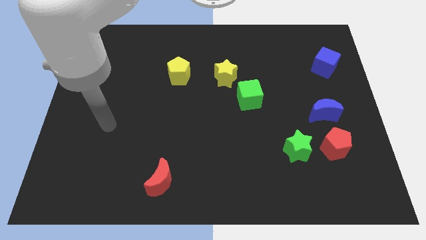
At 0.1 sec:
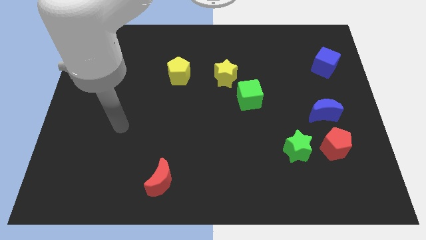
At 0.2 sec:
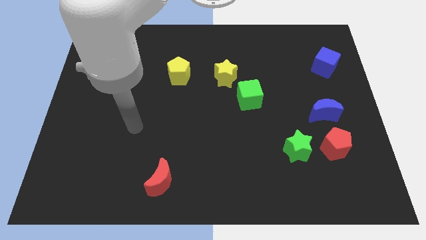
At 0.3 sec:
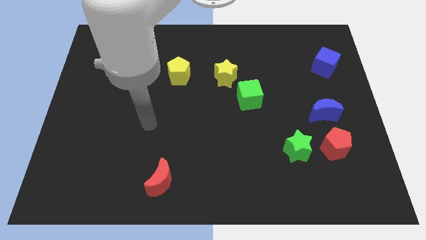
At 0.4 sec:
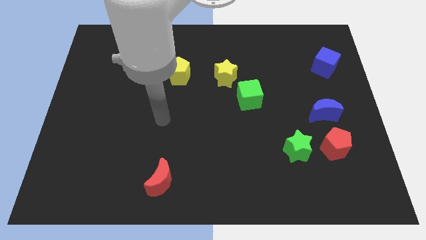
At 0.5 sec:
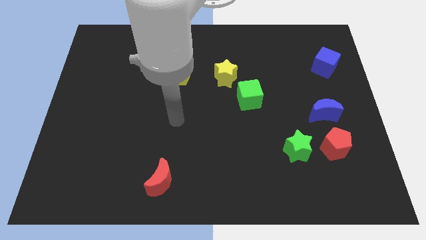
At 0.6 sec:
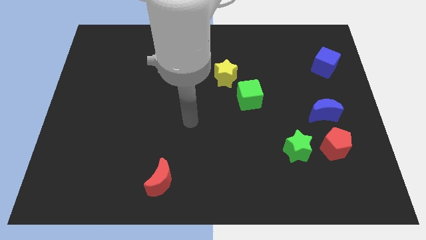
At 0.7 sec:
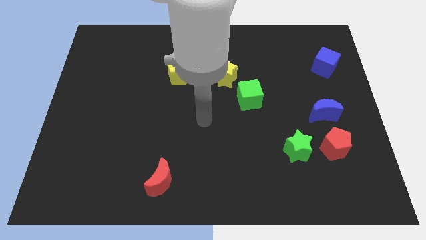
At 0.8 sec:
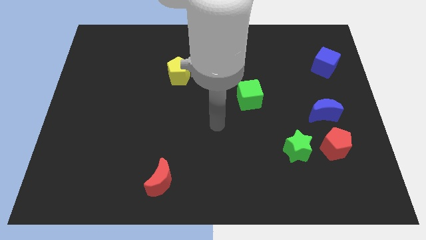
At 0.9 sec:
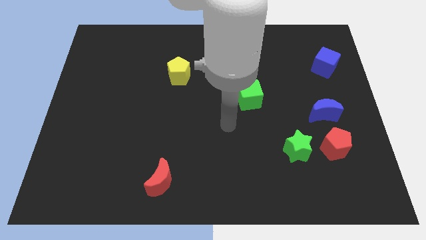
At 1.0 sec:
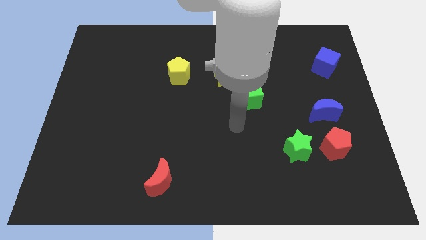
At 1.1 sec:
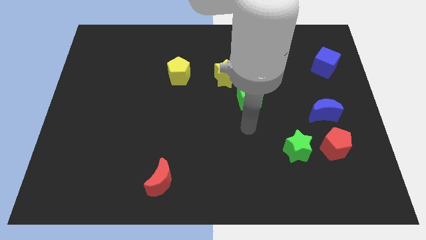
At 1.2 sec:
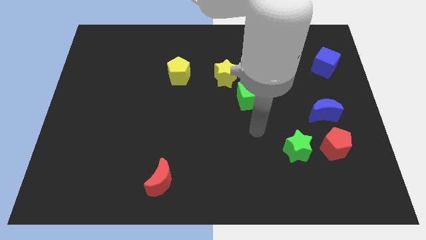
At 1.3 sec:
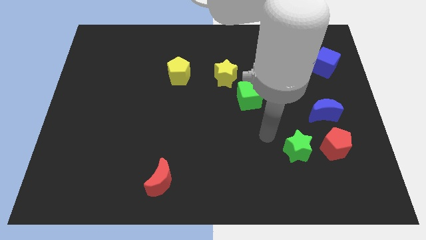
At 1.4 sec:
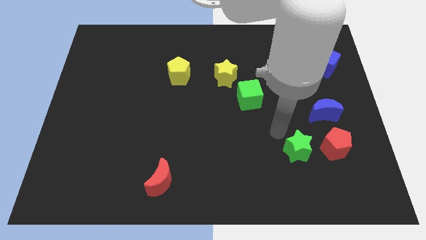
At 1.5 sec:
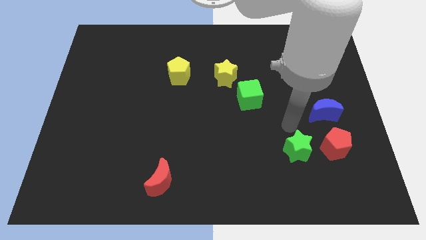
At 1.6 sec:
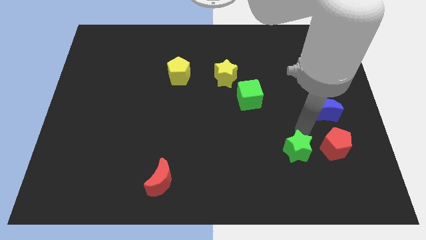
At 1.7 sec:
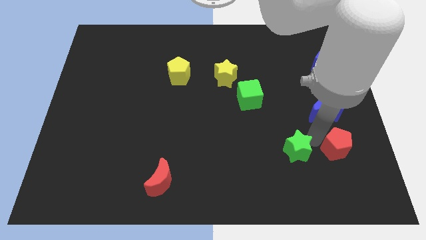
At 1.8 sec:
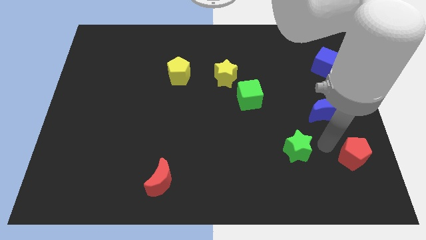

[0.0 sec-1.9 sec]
move the green star away from the red pentagon

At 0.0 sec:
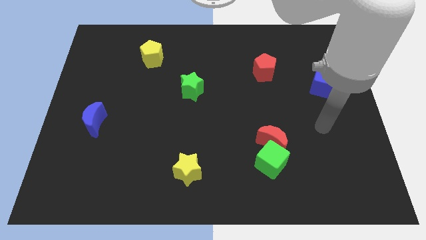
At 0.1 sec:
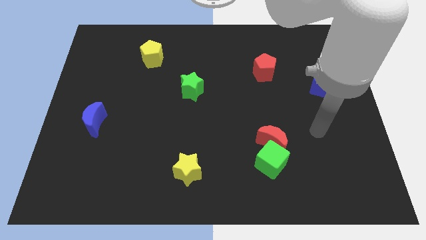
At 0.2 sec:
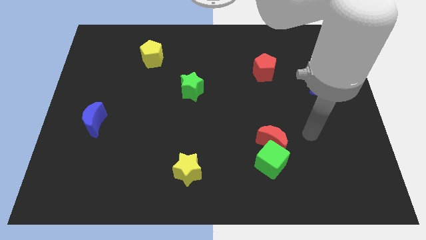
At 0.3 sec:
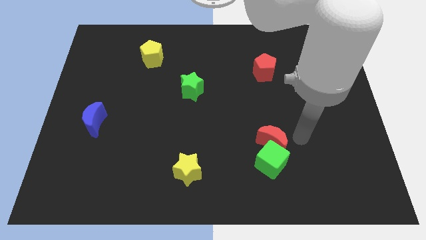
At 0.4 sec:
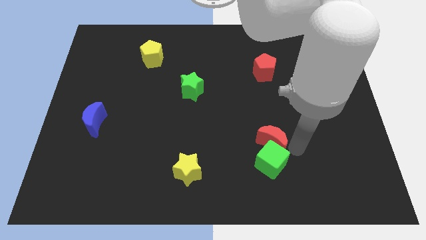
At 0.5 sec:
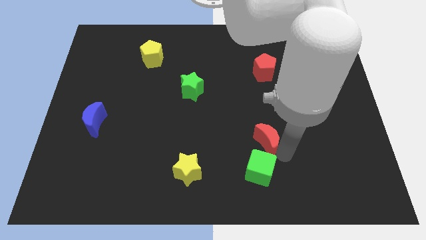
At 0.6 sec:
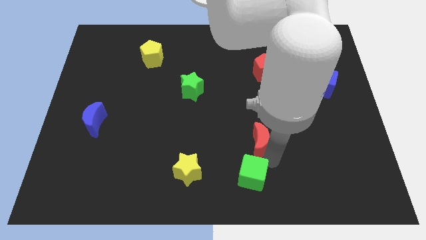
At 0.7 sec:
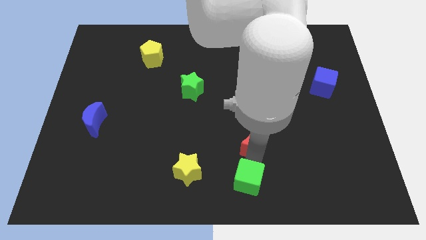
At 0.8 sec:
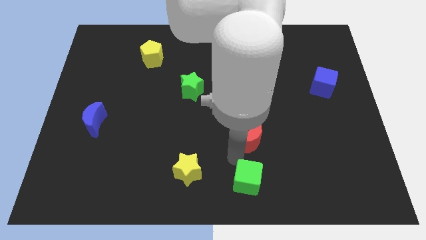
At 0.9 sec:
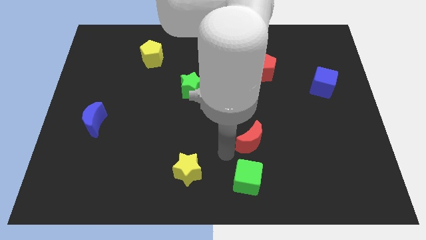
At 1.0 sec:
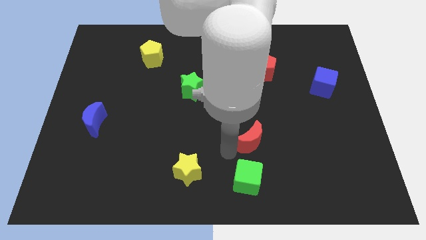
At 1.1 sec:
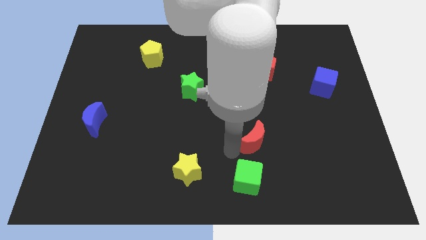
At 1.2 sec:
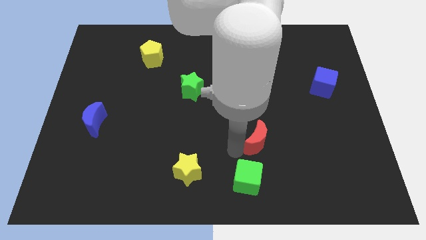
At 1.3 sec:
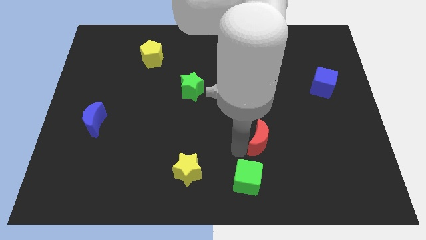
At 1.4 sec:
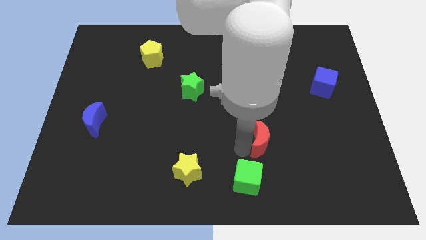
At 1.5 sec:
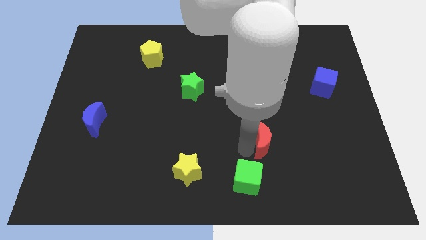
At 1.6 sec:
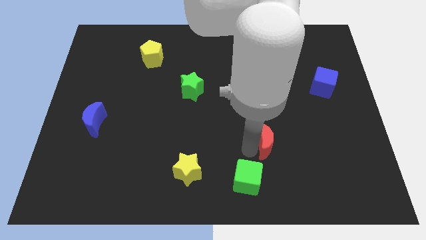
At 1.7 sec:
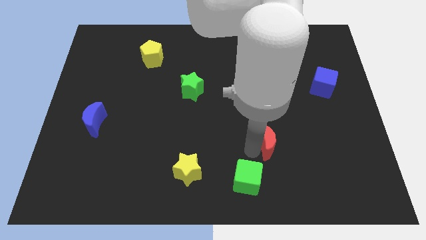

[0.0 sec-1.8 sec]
separate the red moon from the green cube

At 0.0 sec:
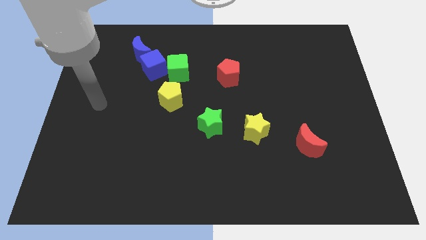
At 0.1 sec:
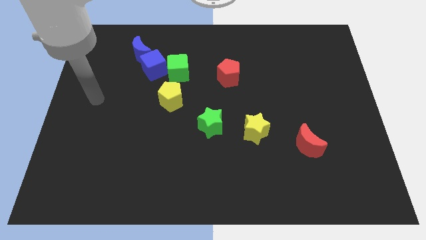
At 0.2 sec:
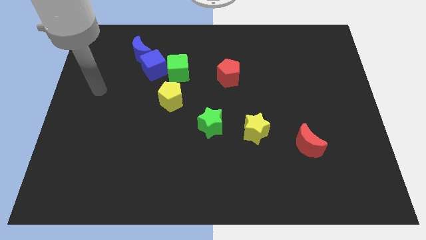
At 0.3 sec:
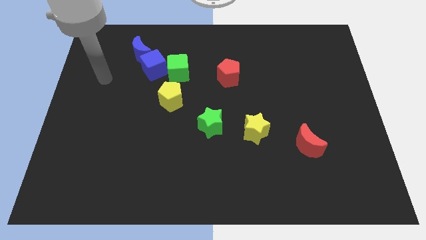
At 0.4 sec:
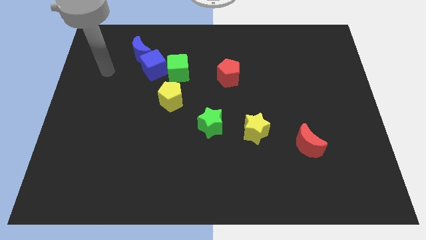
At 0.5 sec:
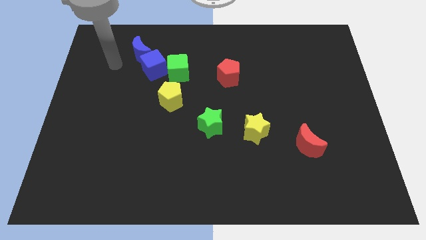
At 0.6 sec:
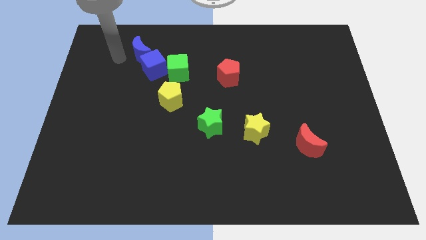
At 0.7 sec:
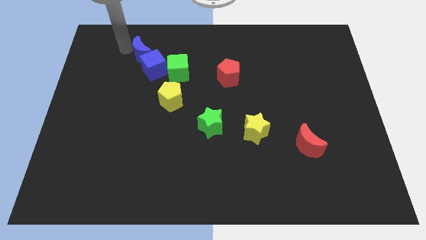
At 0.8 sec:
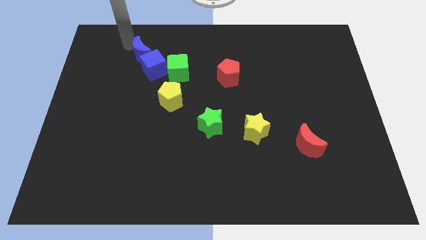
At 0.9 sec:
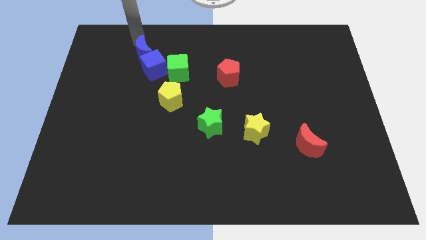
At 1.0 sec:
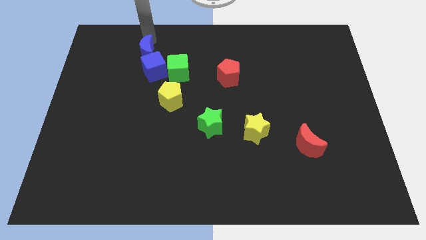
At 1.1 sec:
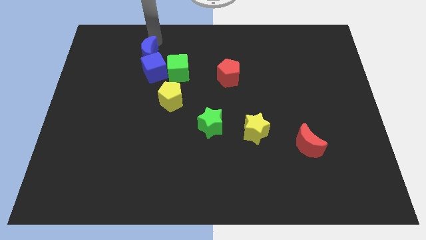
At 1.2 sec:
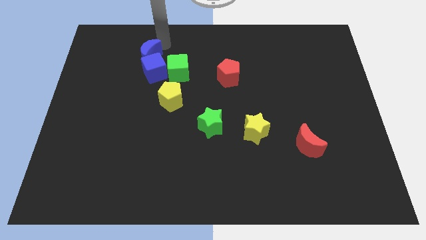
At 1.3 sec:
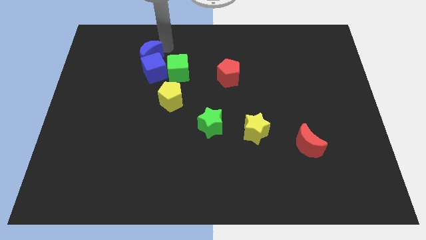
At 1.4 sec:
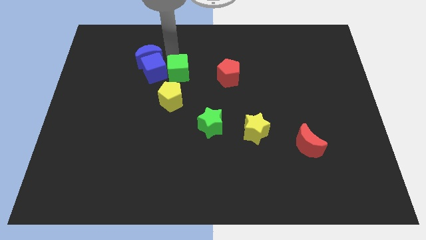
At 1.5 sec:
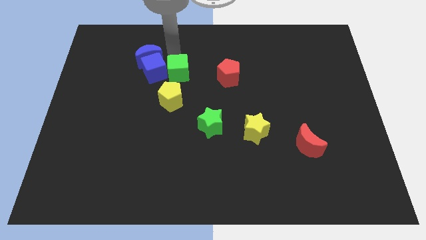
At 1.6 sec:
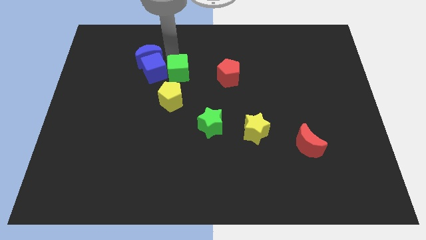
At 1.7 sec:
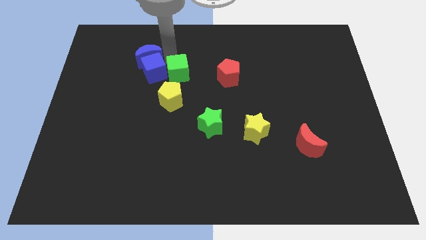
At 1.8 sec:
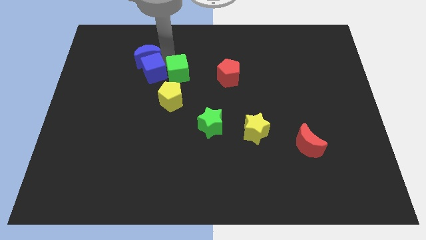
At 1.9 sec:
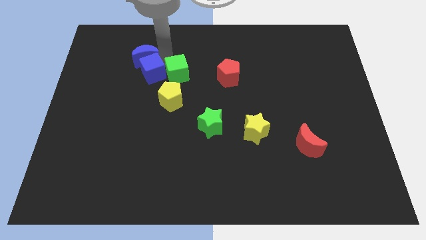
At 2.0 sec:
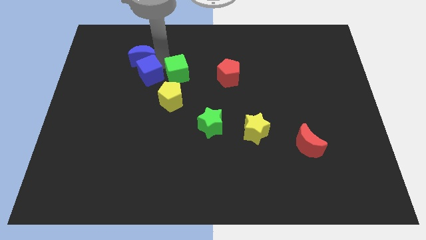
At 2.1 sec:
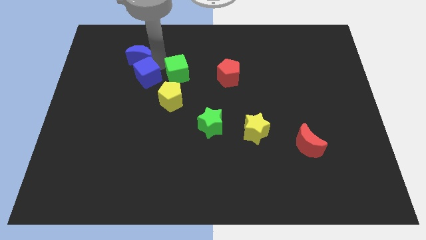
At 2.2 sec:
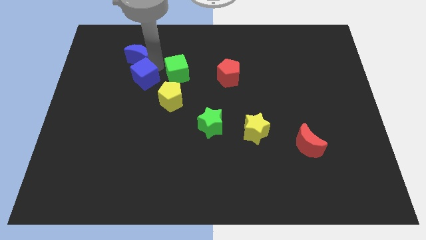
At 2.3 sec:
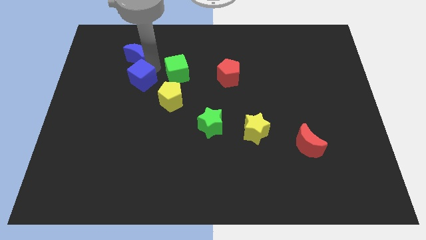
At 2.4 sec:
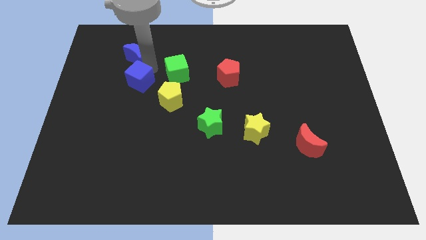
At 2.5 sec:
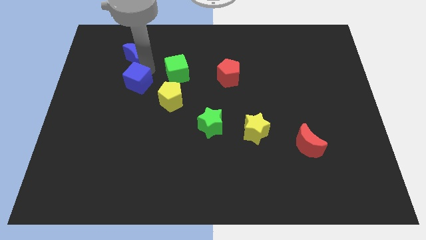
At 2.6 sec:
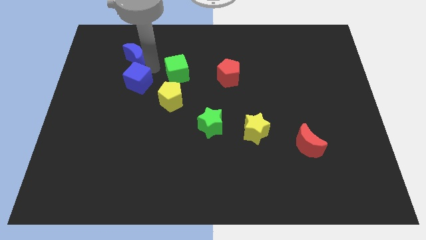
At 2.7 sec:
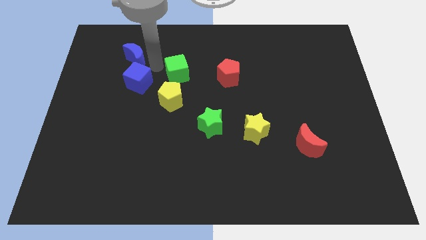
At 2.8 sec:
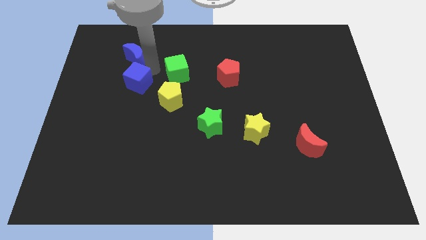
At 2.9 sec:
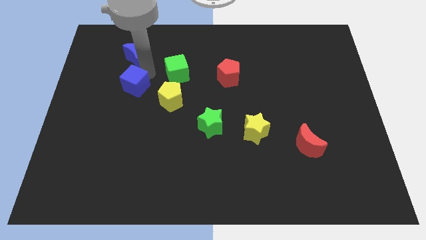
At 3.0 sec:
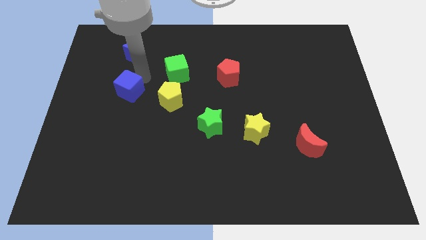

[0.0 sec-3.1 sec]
separate the blue cube from the green cube and blue moon

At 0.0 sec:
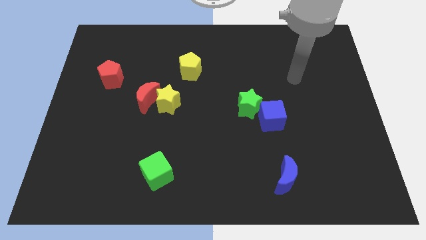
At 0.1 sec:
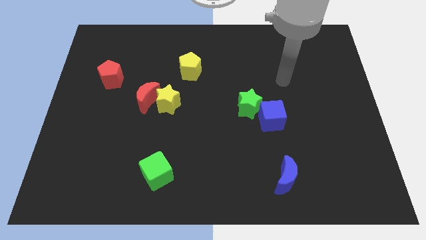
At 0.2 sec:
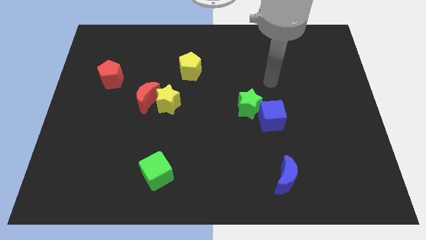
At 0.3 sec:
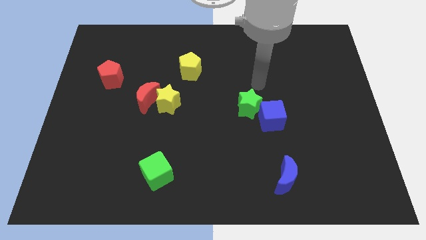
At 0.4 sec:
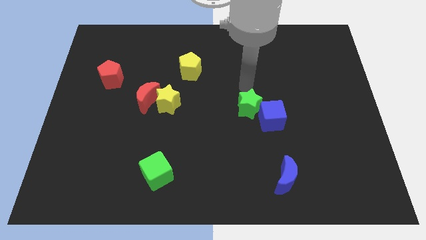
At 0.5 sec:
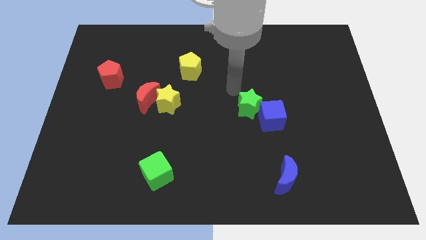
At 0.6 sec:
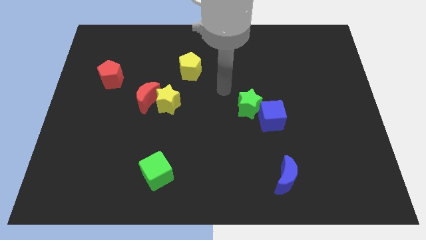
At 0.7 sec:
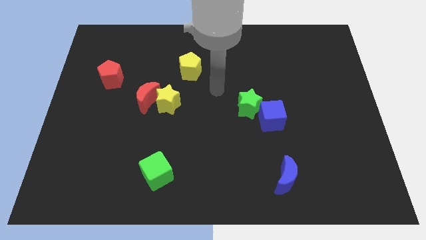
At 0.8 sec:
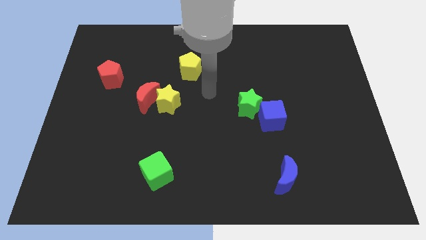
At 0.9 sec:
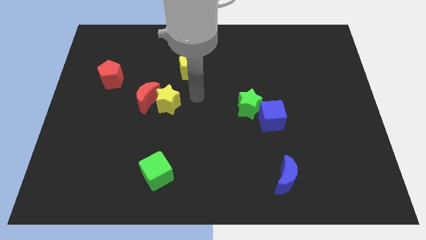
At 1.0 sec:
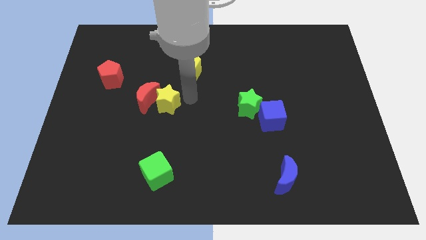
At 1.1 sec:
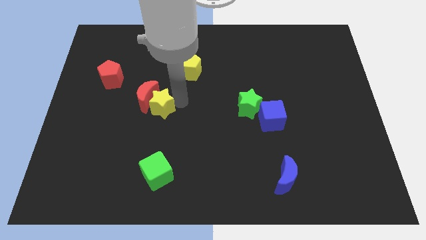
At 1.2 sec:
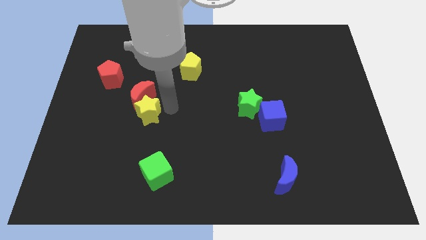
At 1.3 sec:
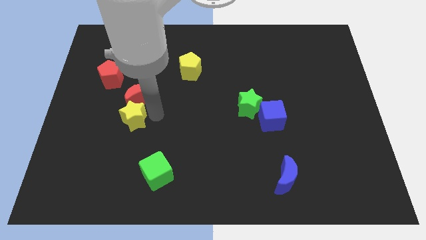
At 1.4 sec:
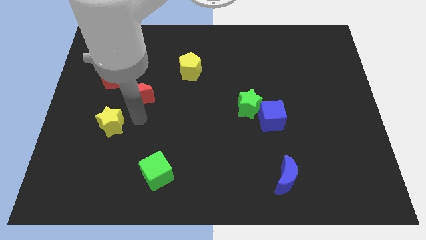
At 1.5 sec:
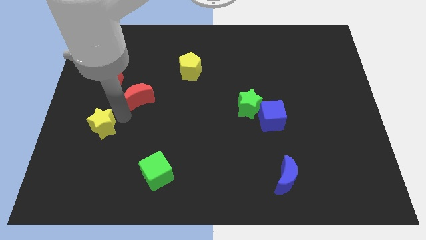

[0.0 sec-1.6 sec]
pull the red moon apart from the yellow star

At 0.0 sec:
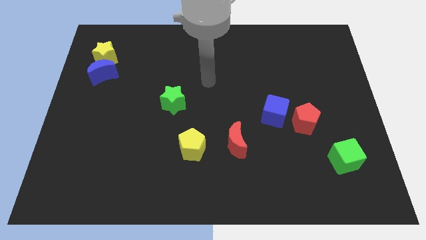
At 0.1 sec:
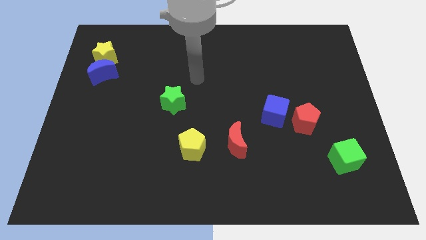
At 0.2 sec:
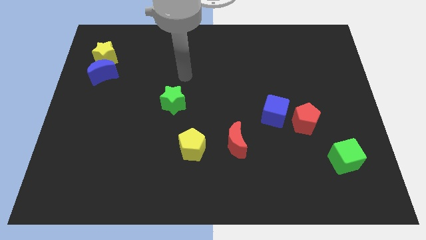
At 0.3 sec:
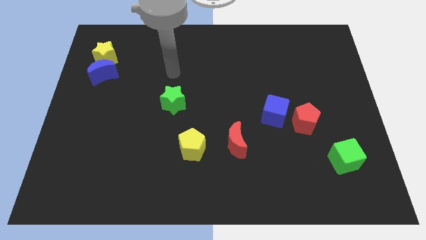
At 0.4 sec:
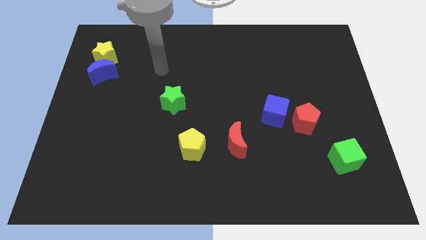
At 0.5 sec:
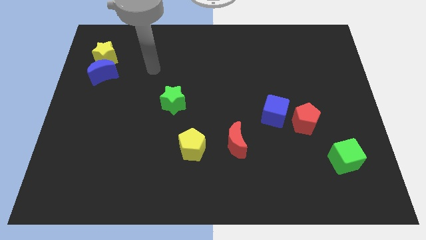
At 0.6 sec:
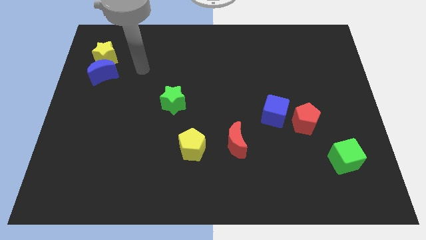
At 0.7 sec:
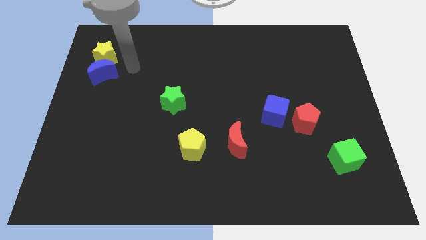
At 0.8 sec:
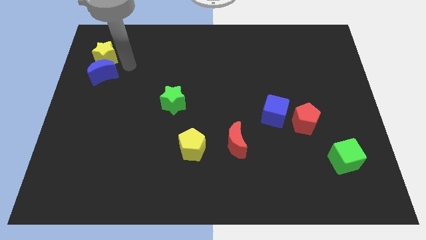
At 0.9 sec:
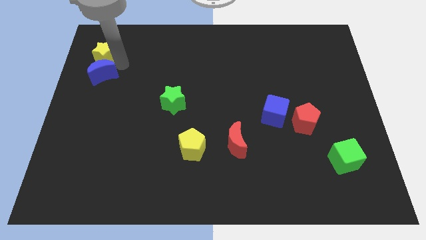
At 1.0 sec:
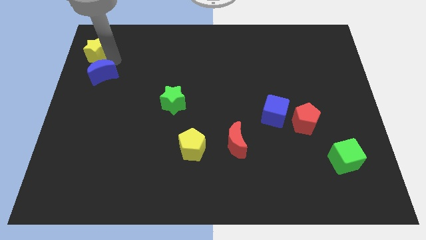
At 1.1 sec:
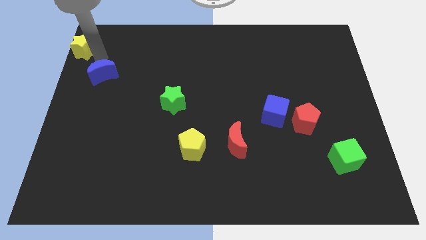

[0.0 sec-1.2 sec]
move the blue moon away from the yellow star
